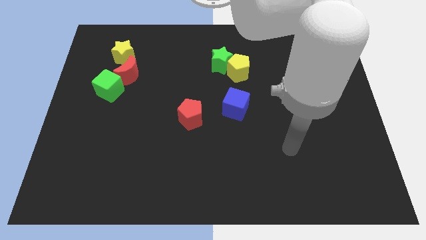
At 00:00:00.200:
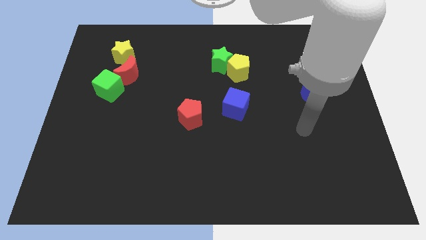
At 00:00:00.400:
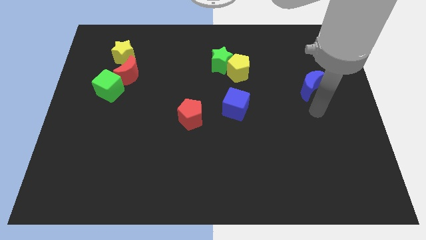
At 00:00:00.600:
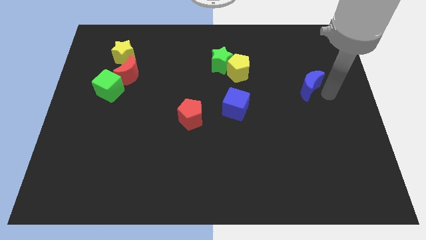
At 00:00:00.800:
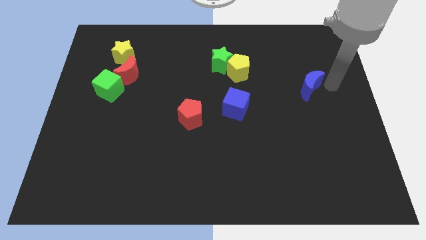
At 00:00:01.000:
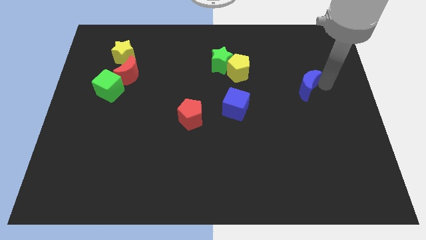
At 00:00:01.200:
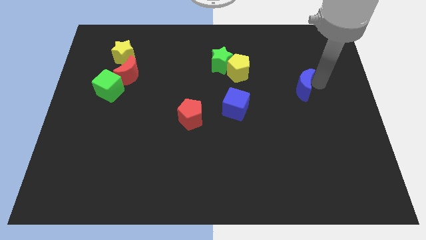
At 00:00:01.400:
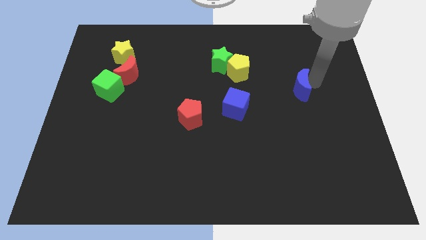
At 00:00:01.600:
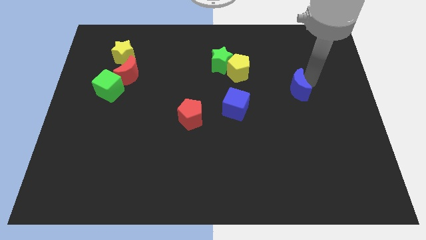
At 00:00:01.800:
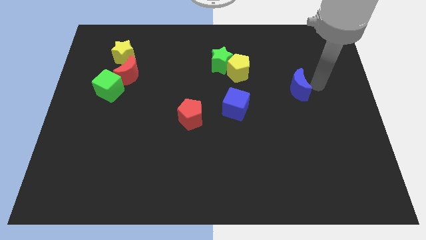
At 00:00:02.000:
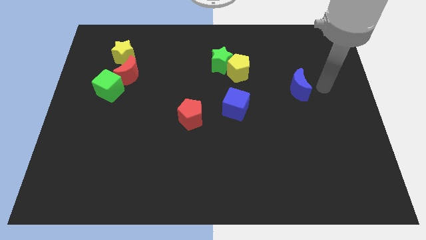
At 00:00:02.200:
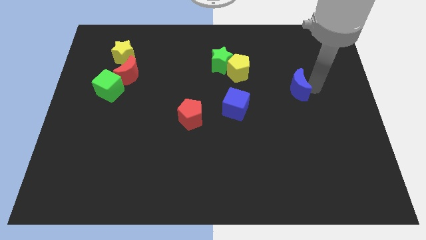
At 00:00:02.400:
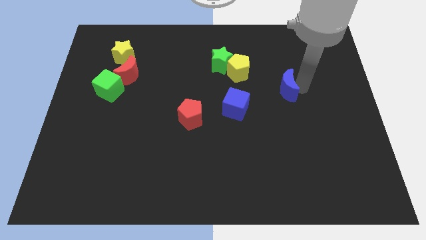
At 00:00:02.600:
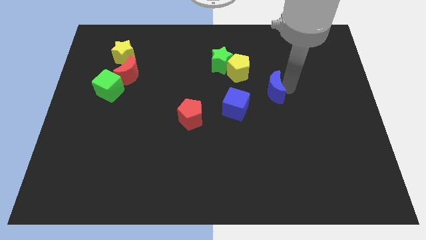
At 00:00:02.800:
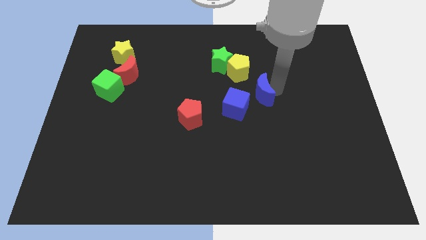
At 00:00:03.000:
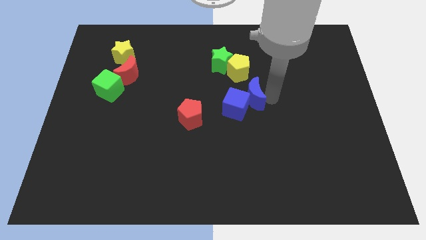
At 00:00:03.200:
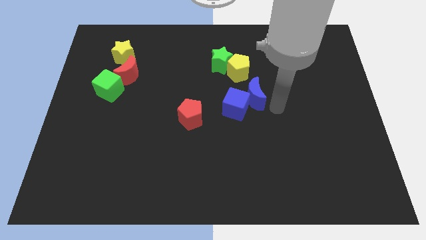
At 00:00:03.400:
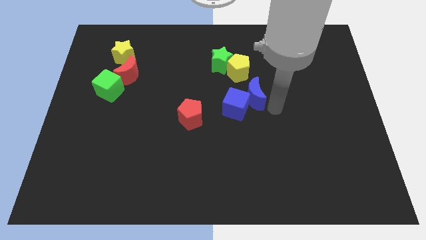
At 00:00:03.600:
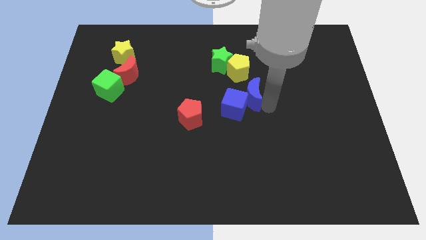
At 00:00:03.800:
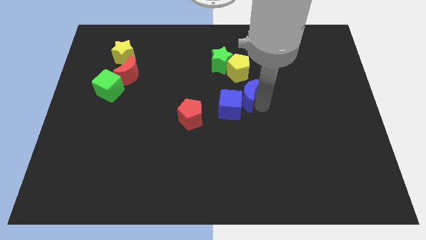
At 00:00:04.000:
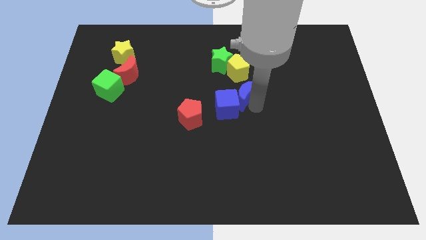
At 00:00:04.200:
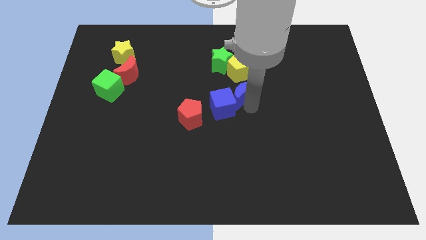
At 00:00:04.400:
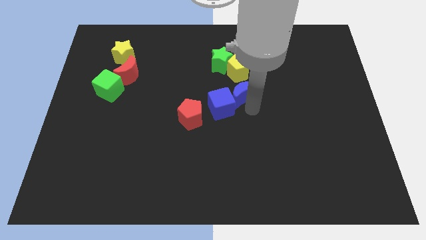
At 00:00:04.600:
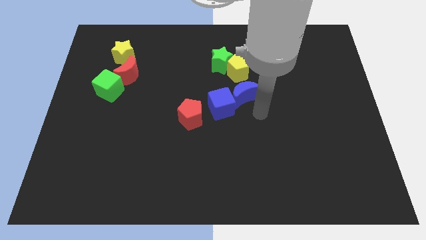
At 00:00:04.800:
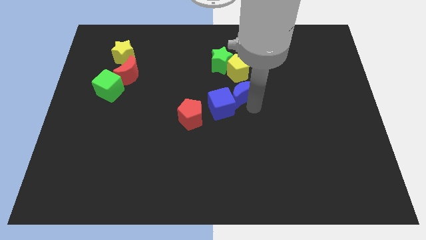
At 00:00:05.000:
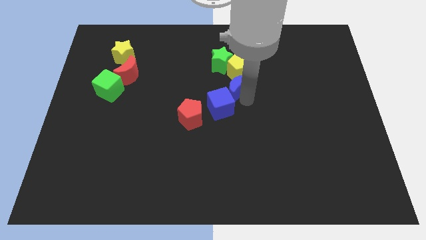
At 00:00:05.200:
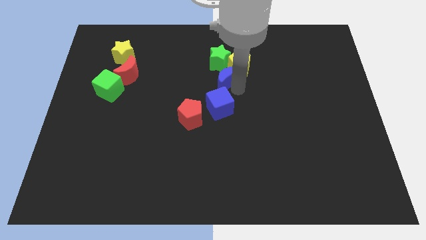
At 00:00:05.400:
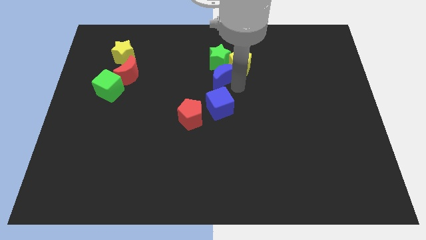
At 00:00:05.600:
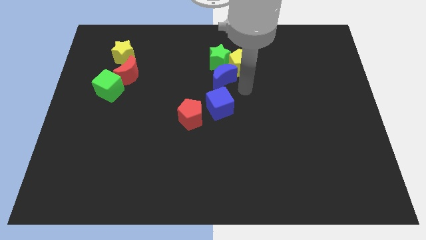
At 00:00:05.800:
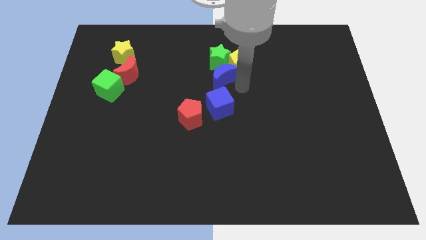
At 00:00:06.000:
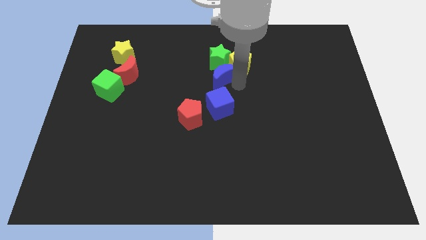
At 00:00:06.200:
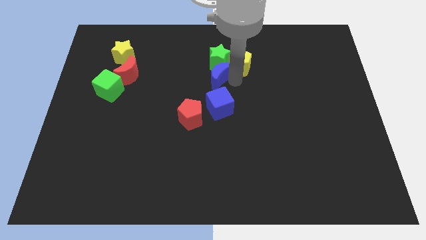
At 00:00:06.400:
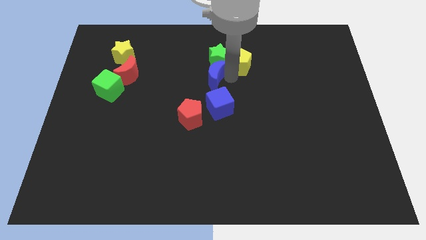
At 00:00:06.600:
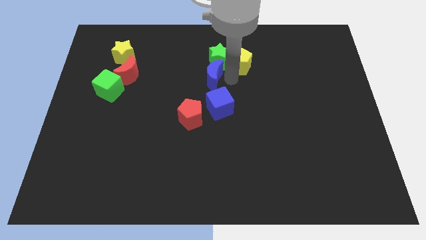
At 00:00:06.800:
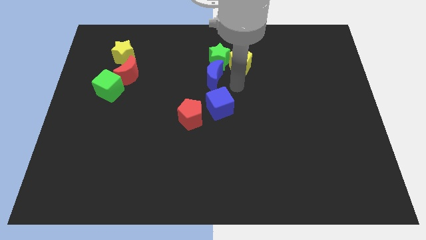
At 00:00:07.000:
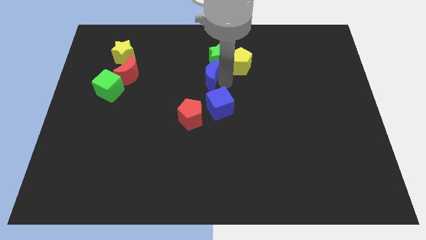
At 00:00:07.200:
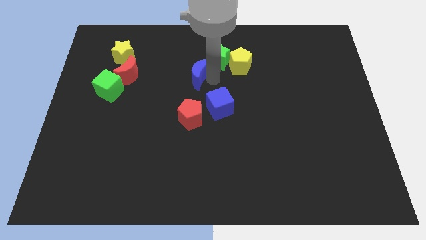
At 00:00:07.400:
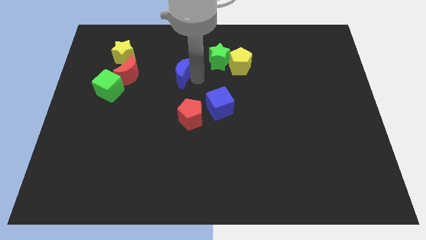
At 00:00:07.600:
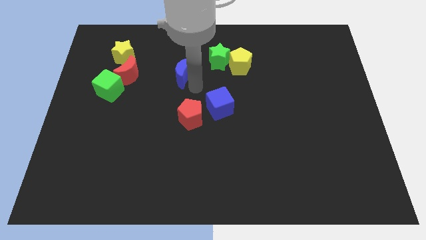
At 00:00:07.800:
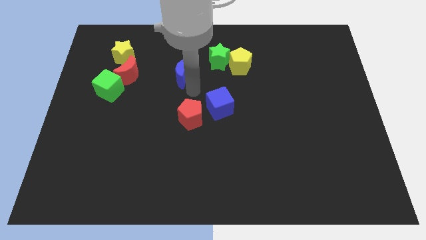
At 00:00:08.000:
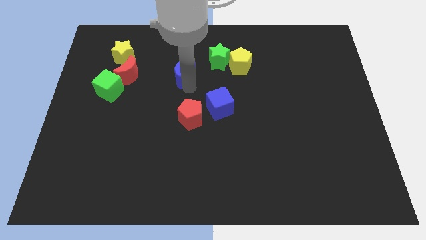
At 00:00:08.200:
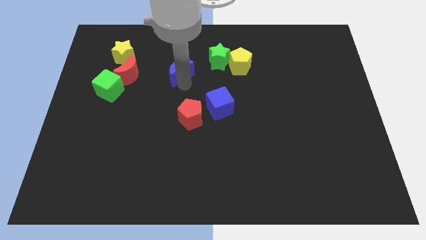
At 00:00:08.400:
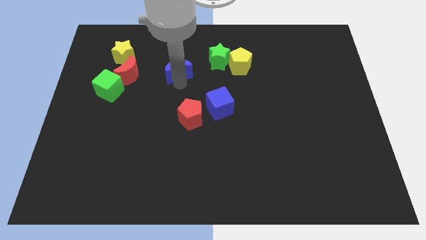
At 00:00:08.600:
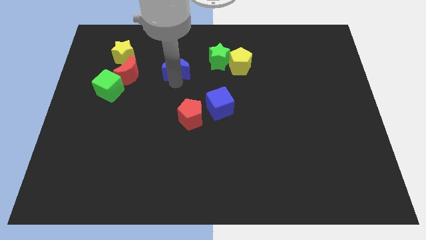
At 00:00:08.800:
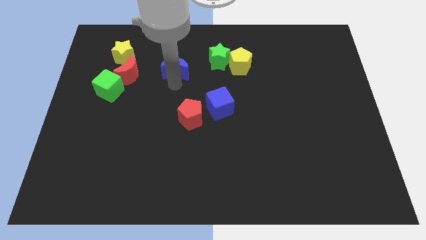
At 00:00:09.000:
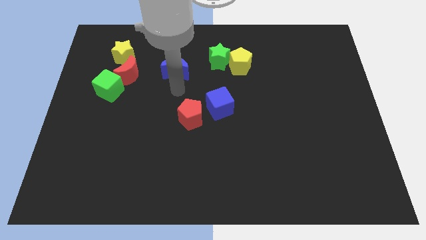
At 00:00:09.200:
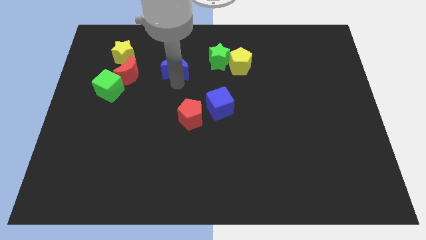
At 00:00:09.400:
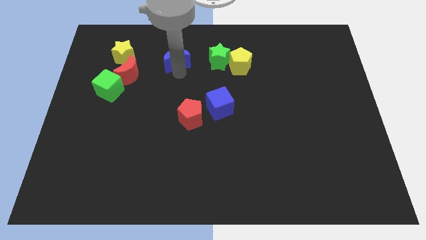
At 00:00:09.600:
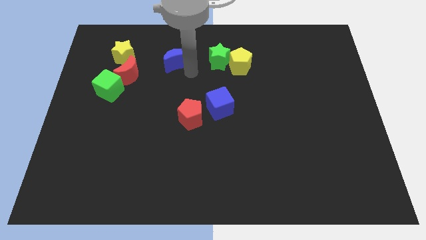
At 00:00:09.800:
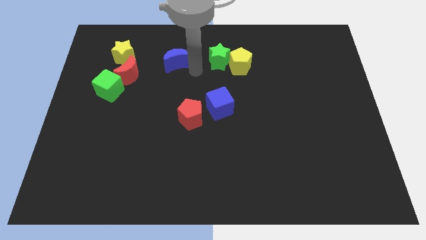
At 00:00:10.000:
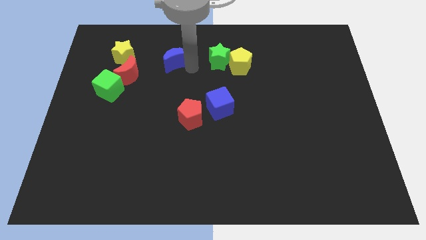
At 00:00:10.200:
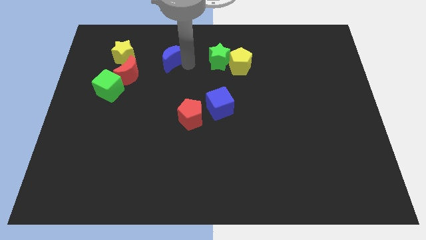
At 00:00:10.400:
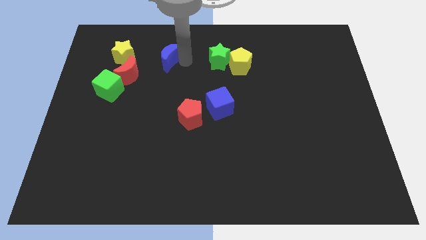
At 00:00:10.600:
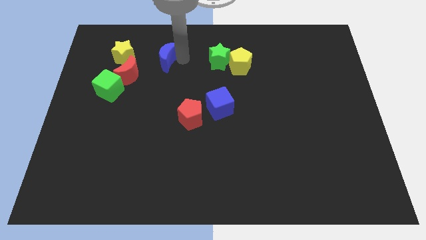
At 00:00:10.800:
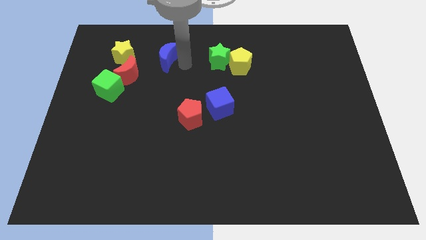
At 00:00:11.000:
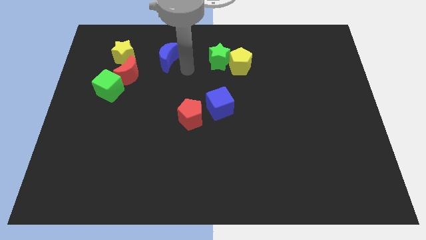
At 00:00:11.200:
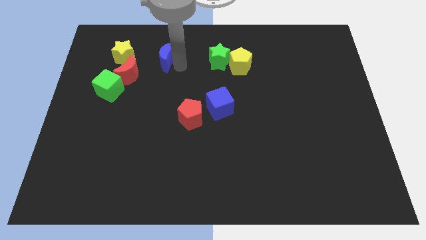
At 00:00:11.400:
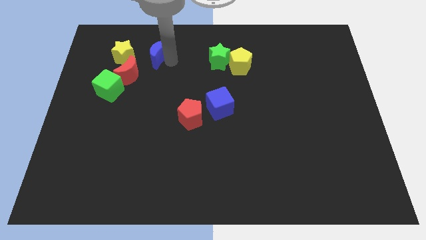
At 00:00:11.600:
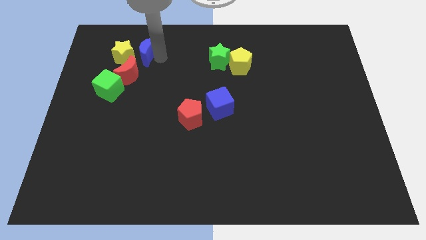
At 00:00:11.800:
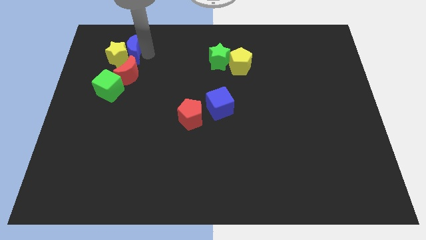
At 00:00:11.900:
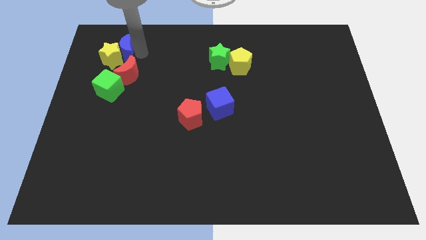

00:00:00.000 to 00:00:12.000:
push the blue moon diagonally up and to the left of the red moon
